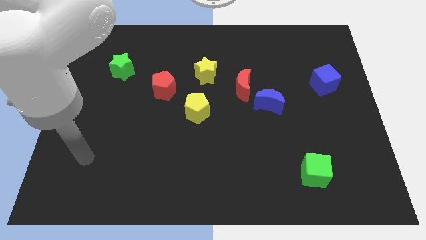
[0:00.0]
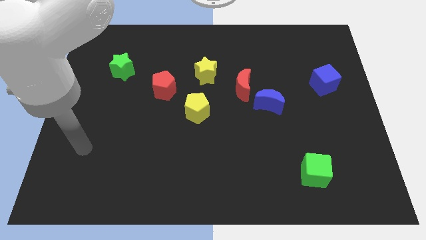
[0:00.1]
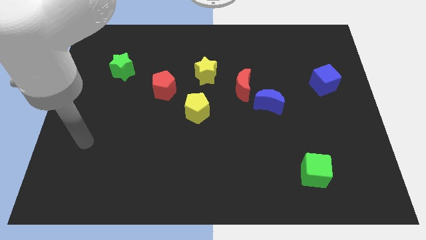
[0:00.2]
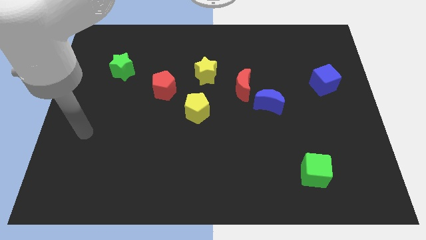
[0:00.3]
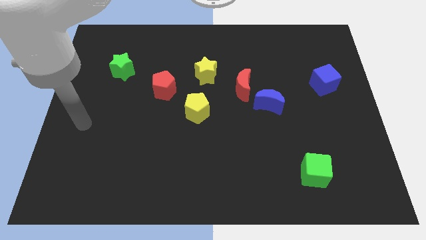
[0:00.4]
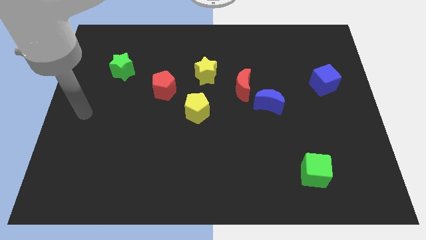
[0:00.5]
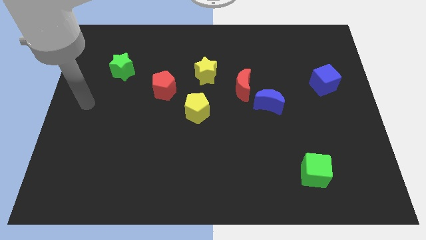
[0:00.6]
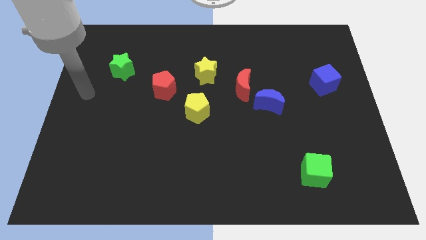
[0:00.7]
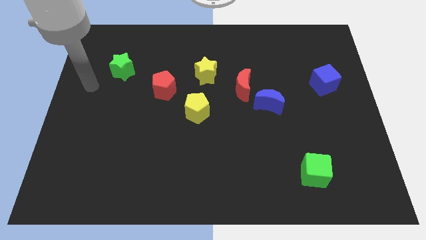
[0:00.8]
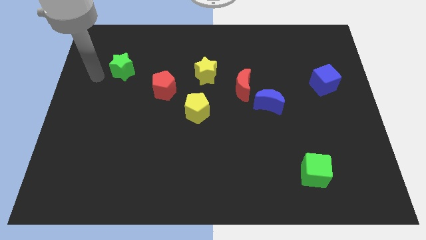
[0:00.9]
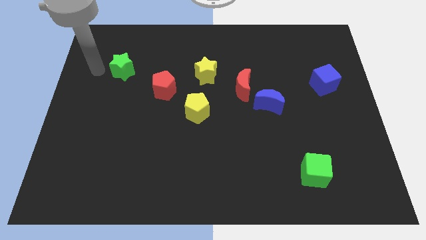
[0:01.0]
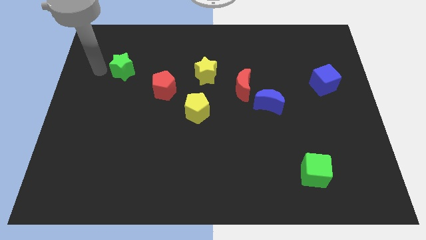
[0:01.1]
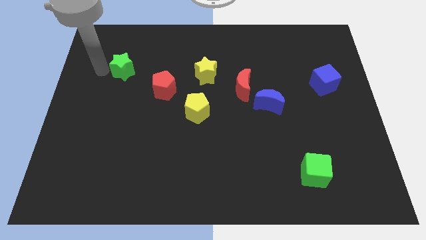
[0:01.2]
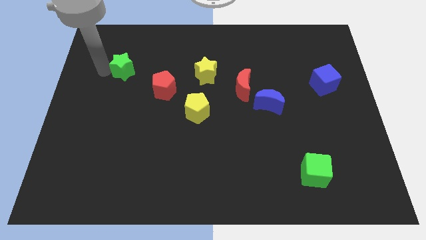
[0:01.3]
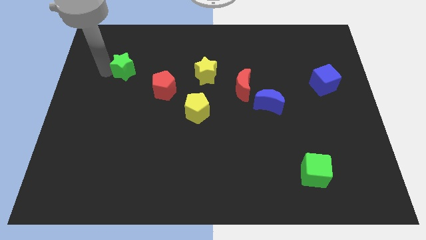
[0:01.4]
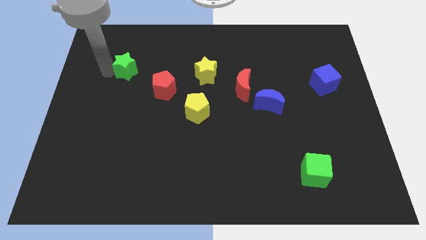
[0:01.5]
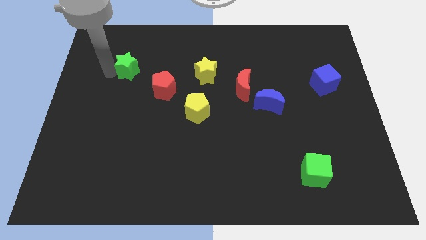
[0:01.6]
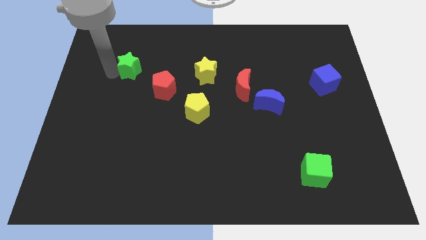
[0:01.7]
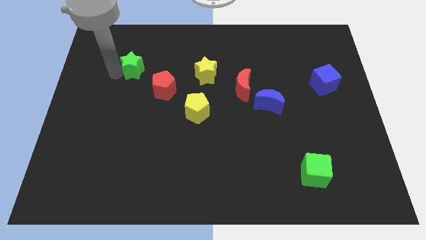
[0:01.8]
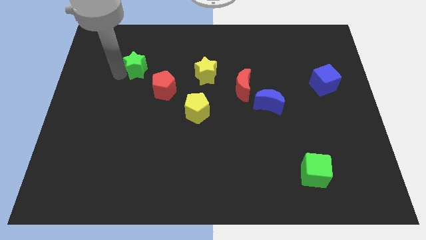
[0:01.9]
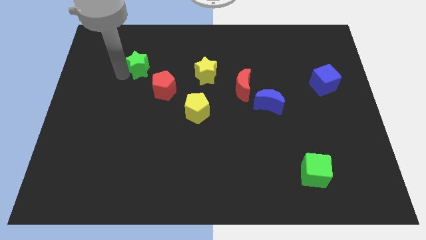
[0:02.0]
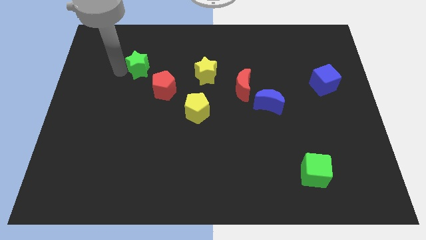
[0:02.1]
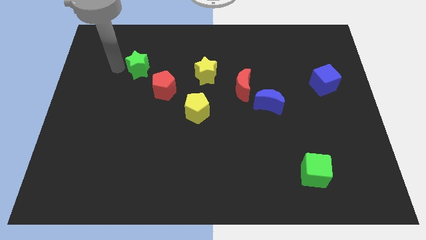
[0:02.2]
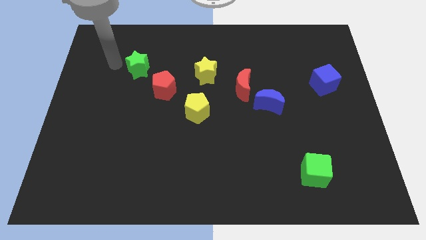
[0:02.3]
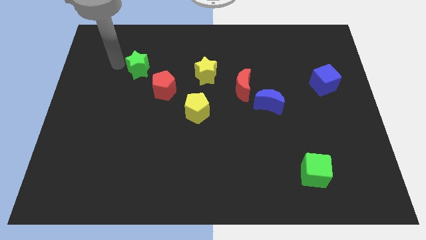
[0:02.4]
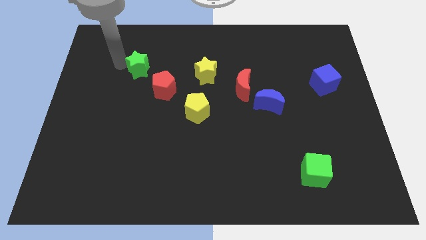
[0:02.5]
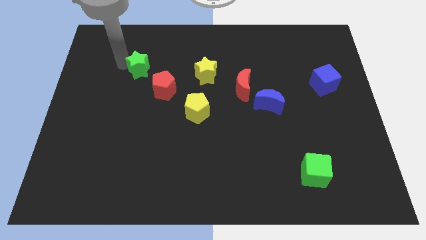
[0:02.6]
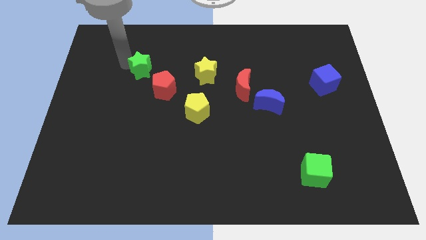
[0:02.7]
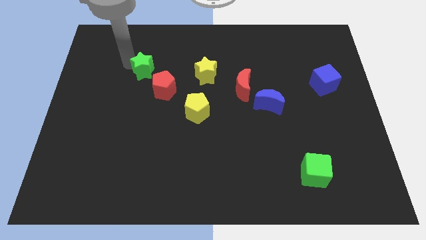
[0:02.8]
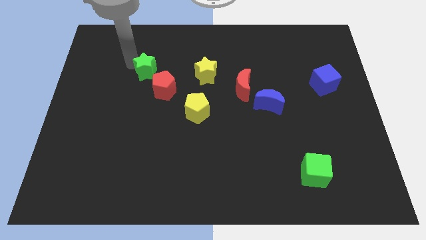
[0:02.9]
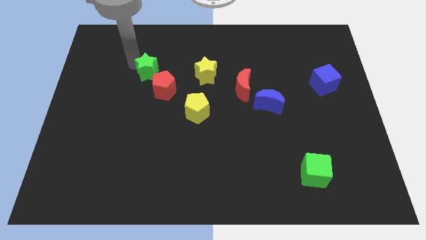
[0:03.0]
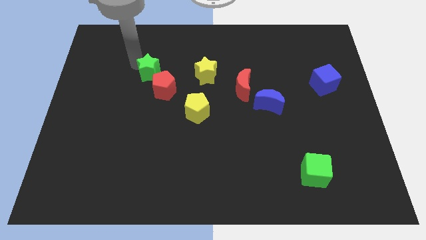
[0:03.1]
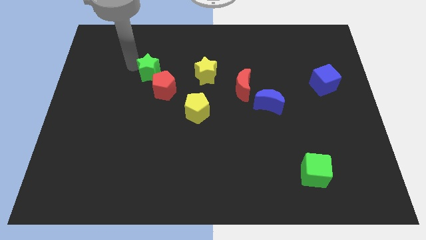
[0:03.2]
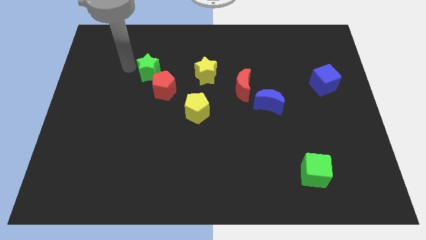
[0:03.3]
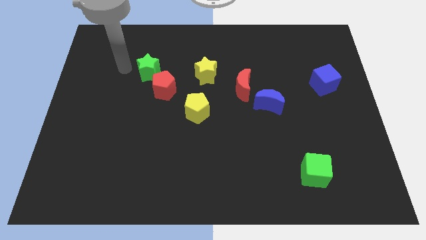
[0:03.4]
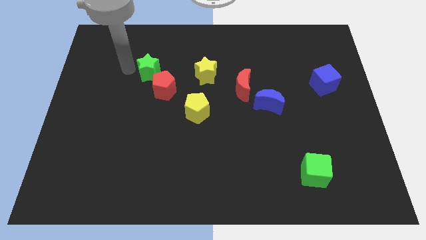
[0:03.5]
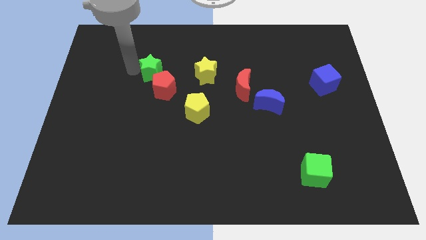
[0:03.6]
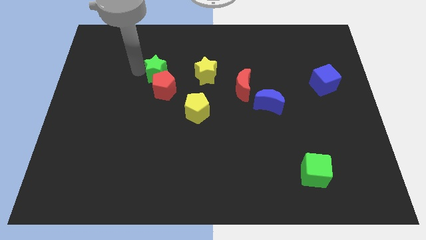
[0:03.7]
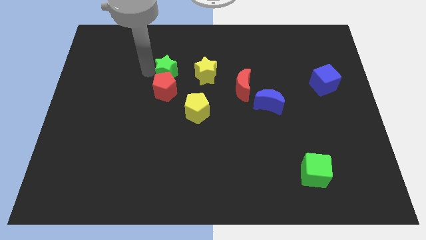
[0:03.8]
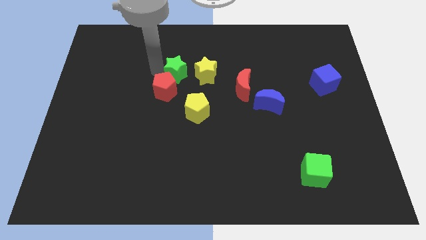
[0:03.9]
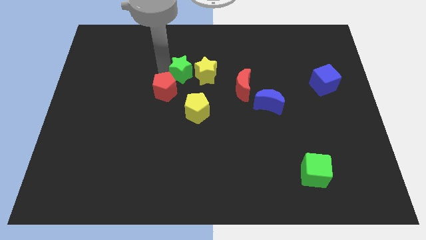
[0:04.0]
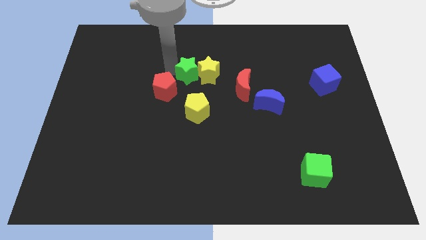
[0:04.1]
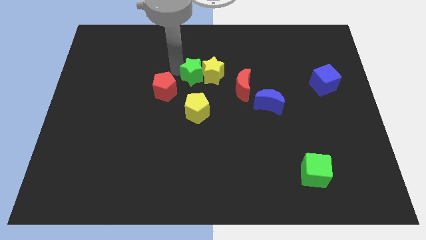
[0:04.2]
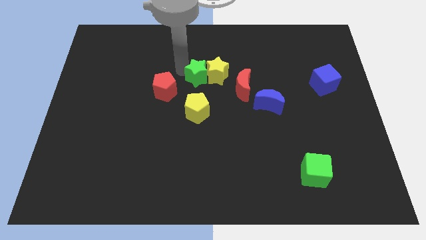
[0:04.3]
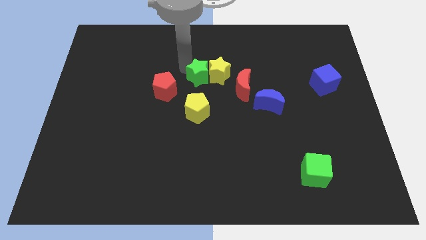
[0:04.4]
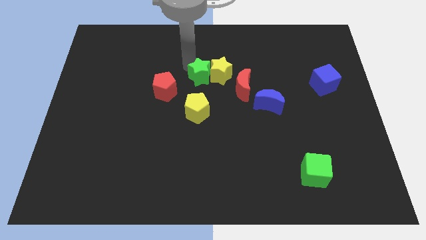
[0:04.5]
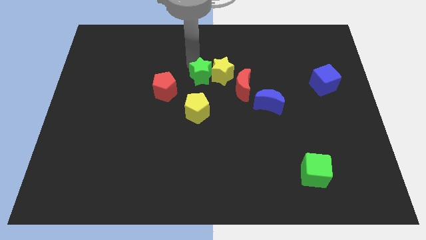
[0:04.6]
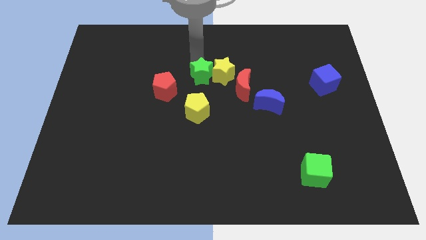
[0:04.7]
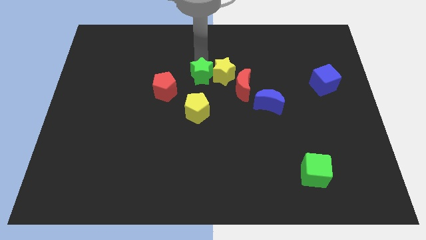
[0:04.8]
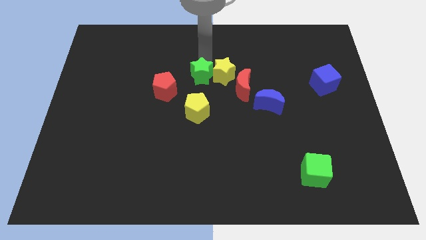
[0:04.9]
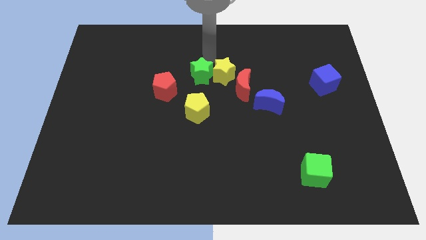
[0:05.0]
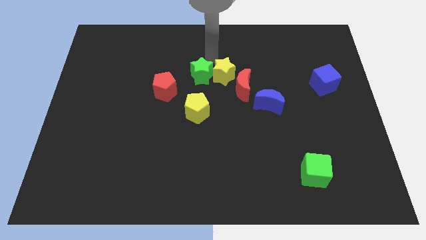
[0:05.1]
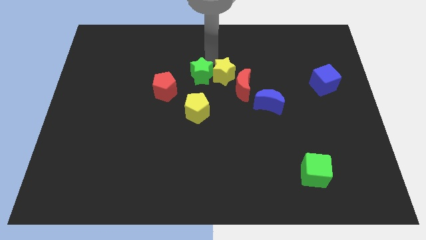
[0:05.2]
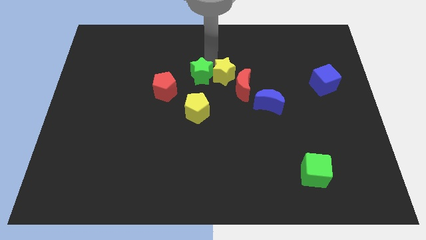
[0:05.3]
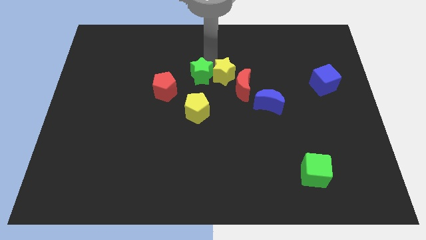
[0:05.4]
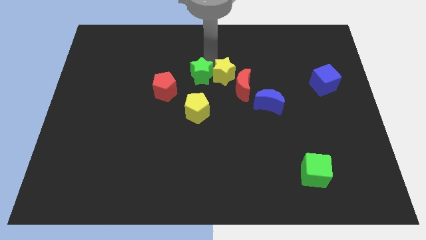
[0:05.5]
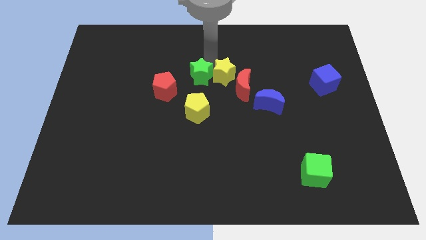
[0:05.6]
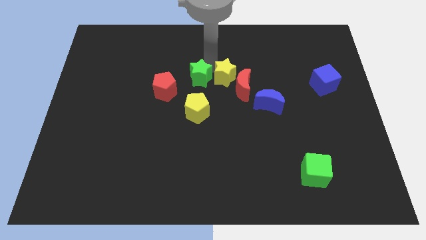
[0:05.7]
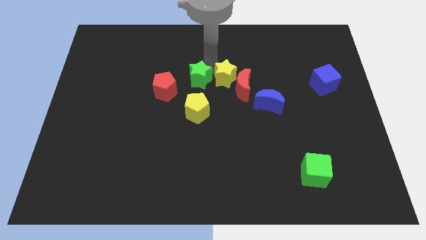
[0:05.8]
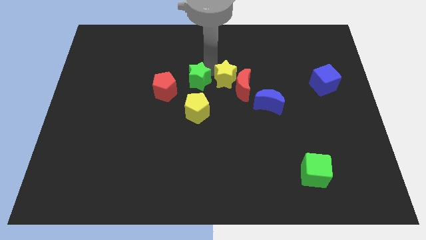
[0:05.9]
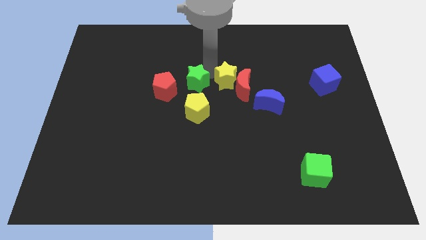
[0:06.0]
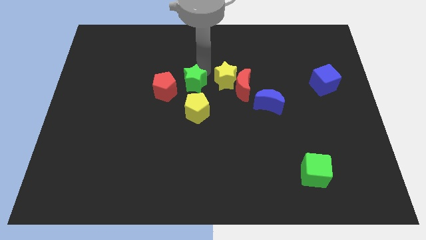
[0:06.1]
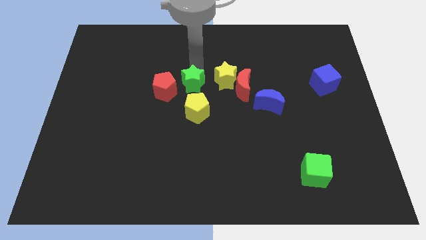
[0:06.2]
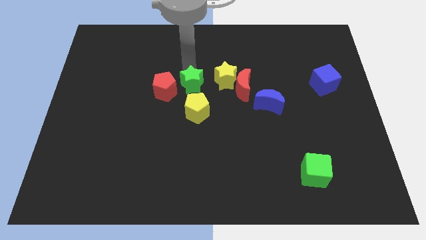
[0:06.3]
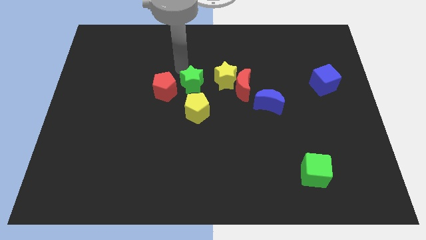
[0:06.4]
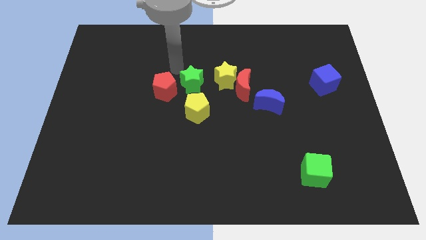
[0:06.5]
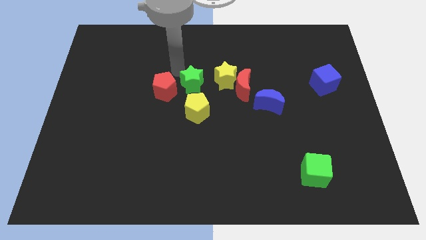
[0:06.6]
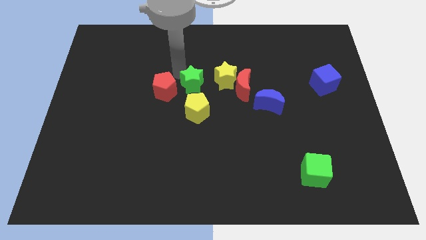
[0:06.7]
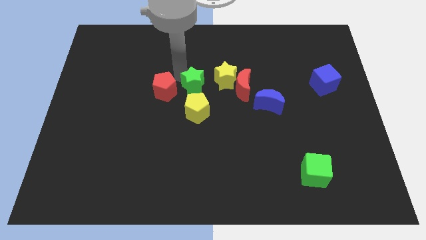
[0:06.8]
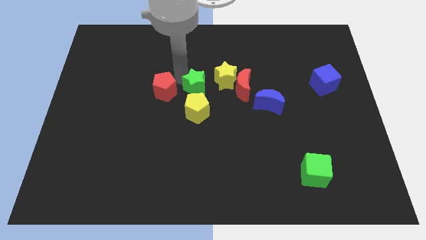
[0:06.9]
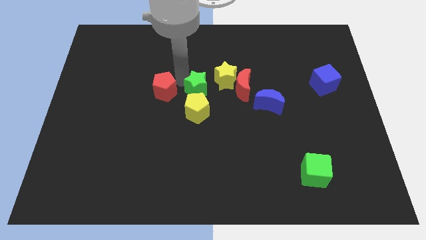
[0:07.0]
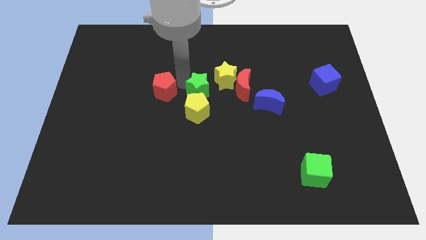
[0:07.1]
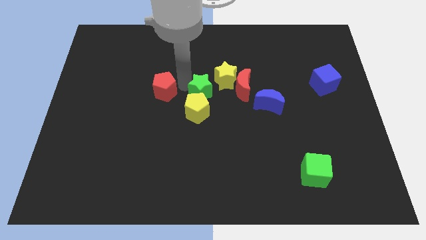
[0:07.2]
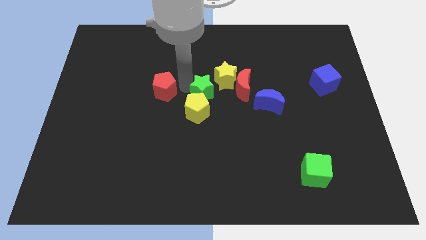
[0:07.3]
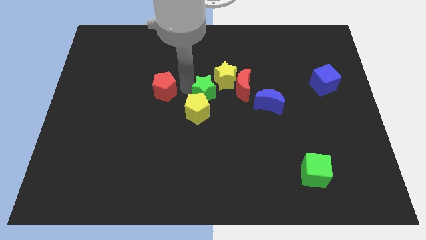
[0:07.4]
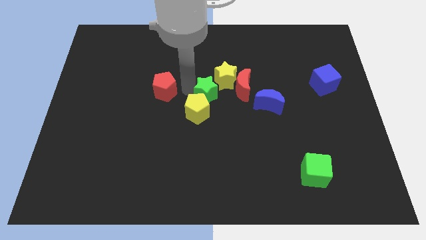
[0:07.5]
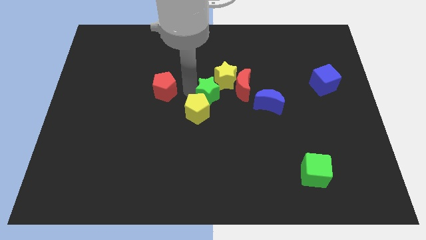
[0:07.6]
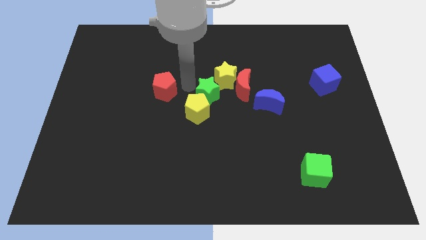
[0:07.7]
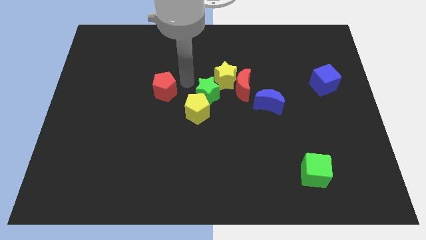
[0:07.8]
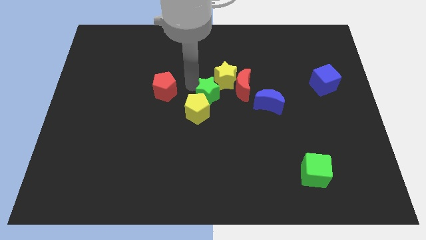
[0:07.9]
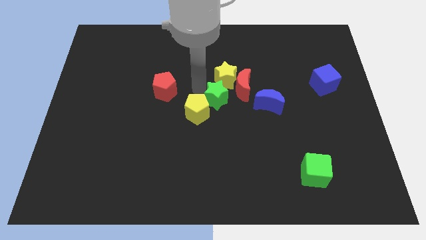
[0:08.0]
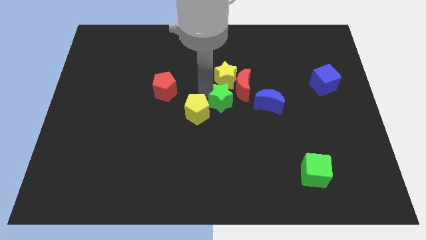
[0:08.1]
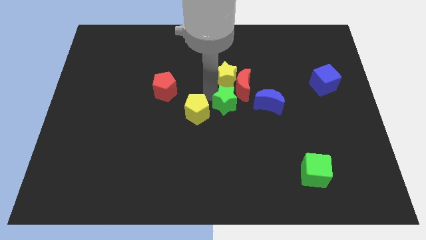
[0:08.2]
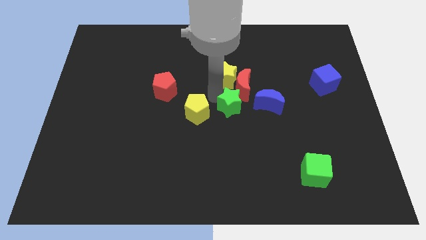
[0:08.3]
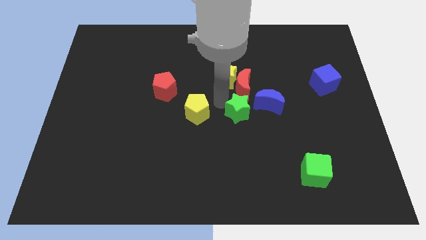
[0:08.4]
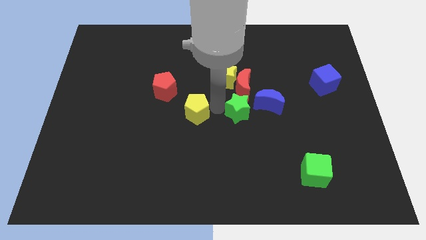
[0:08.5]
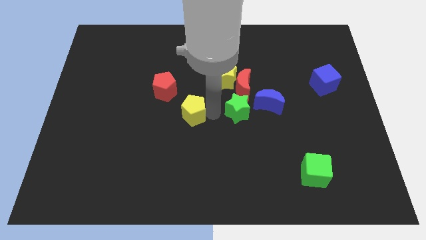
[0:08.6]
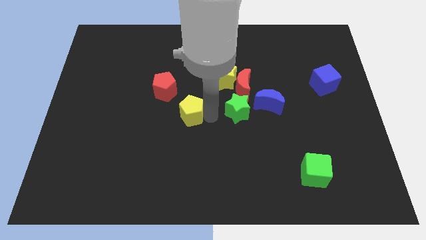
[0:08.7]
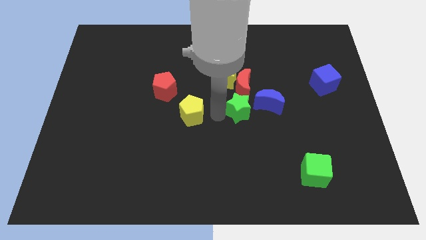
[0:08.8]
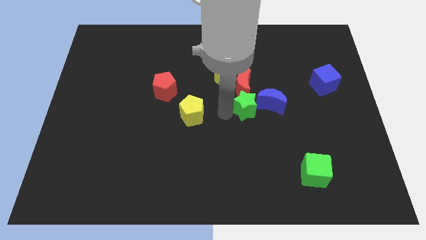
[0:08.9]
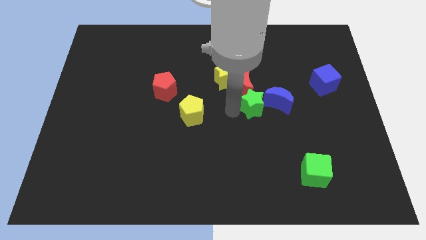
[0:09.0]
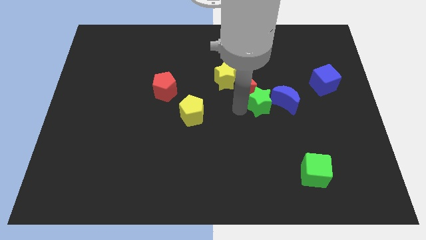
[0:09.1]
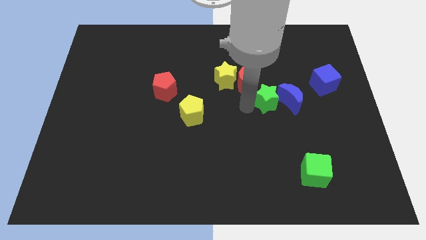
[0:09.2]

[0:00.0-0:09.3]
put the green star towards the blue moon
